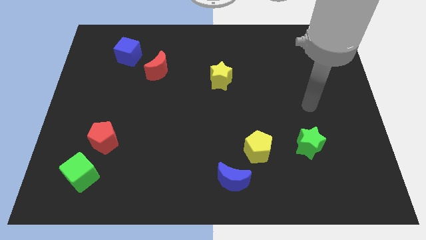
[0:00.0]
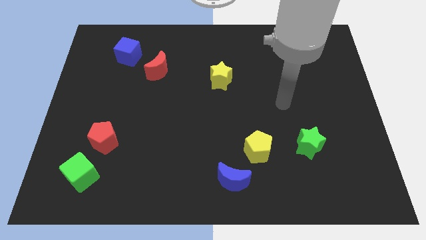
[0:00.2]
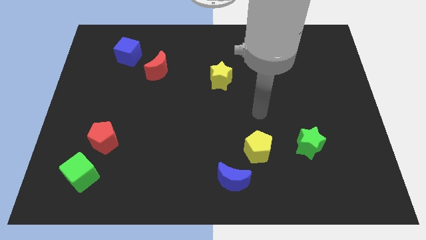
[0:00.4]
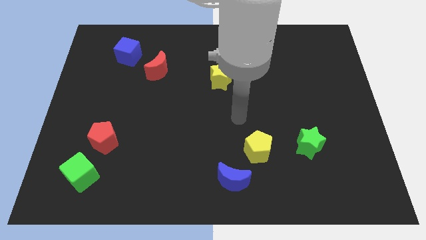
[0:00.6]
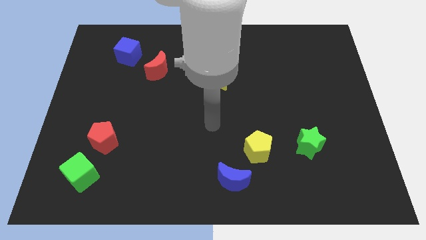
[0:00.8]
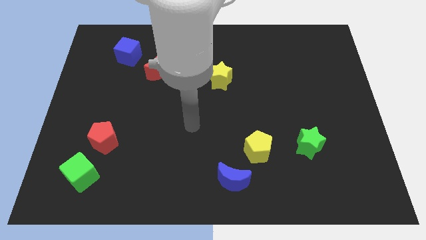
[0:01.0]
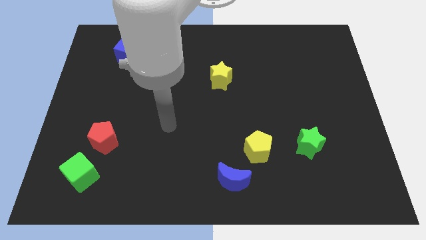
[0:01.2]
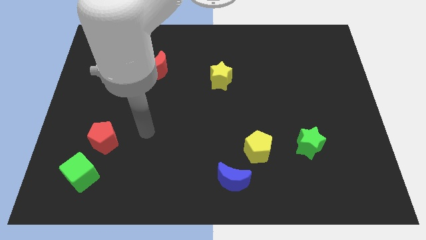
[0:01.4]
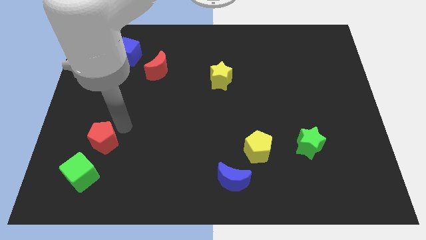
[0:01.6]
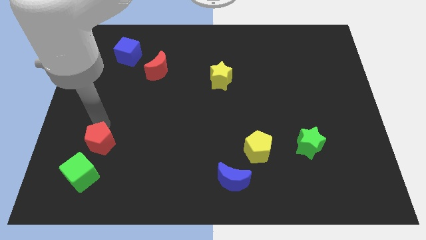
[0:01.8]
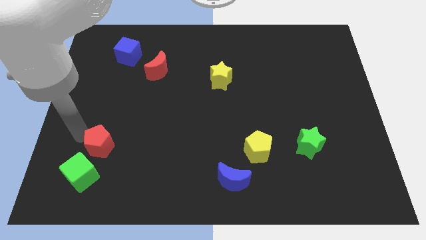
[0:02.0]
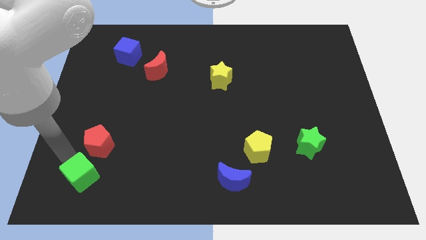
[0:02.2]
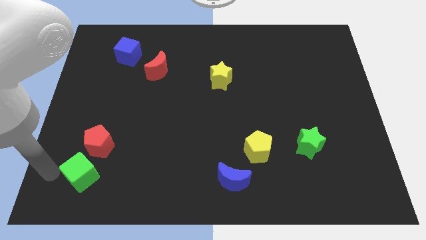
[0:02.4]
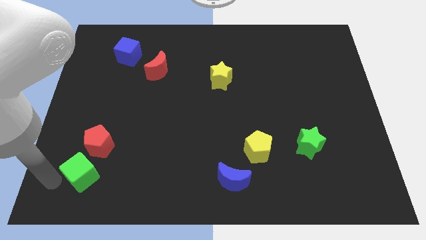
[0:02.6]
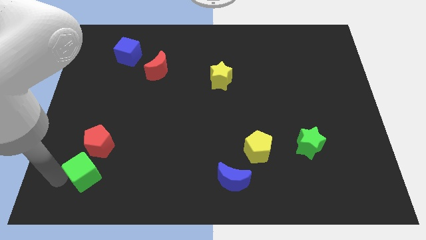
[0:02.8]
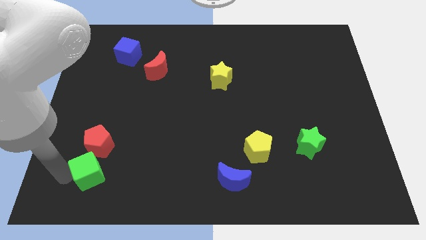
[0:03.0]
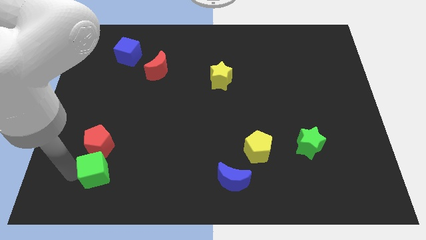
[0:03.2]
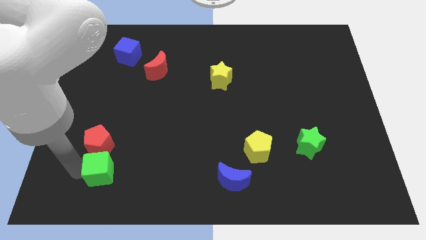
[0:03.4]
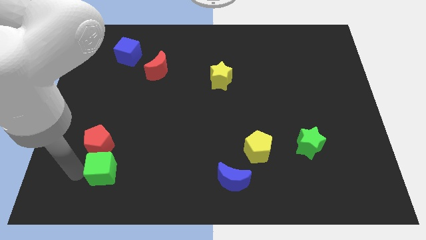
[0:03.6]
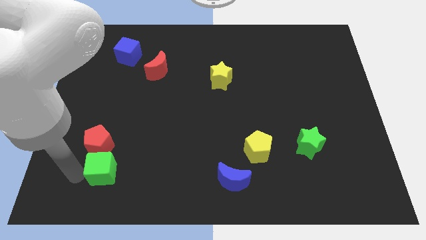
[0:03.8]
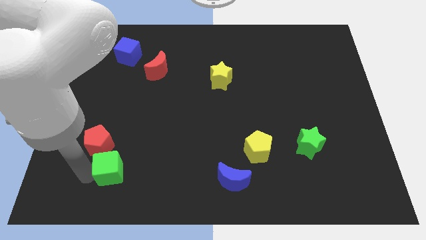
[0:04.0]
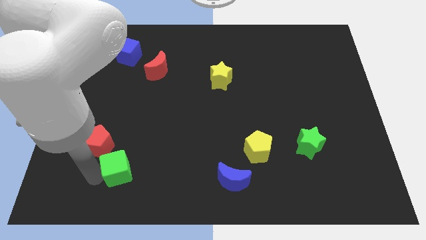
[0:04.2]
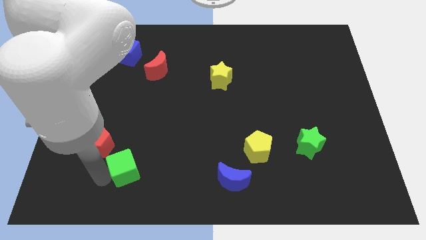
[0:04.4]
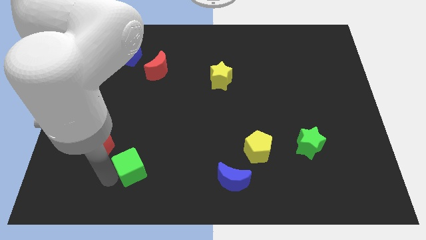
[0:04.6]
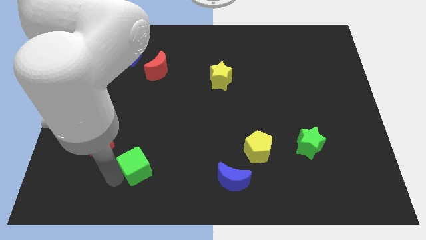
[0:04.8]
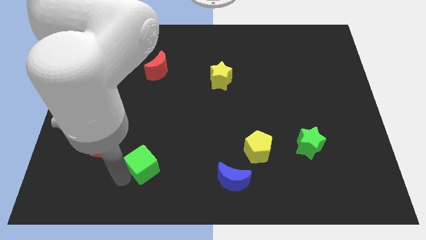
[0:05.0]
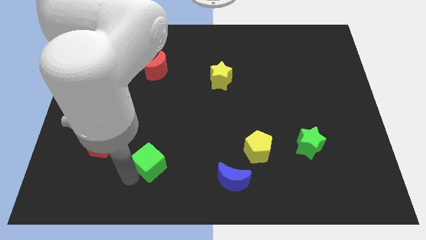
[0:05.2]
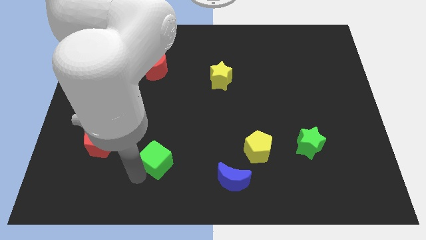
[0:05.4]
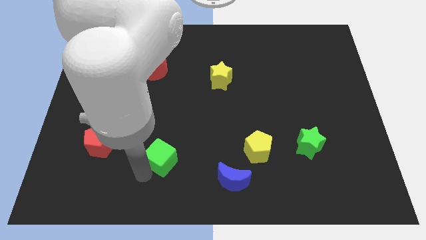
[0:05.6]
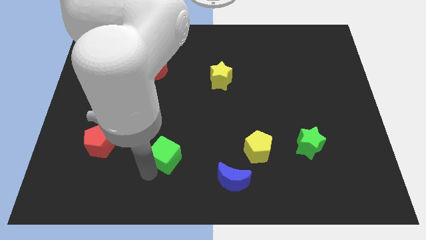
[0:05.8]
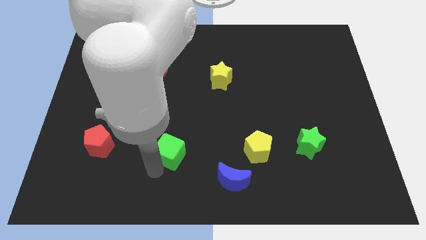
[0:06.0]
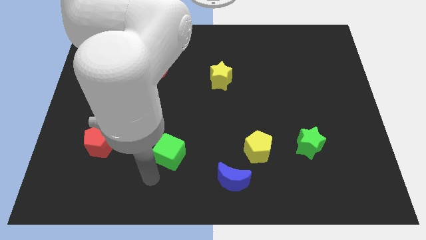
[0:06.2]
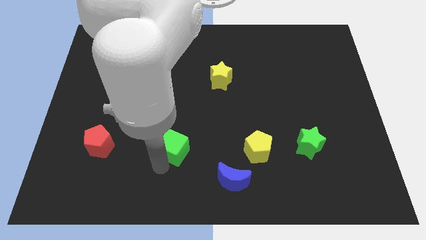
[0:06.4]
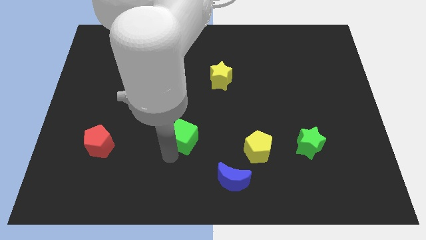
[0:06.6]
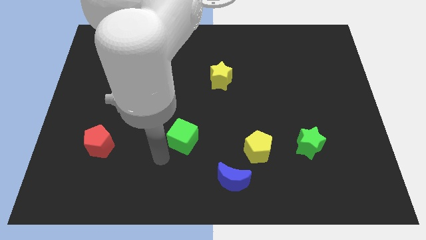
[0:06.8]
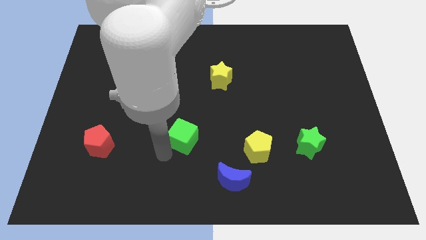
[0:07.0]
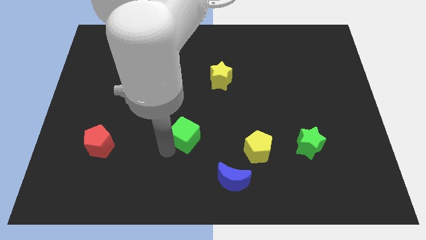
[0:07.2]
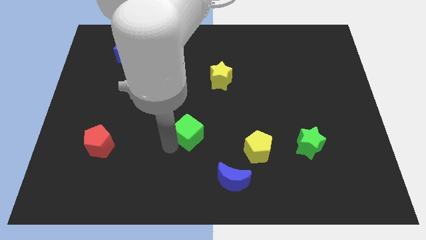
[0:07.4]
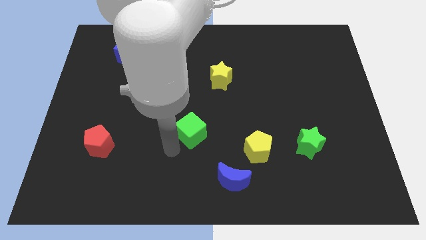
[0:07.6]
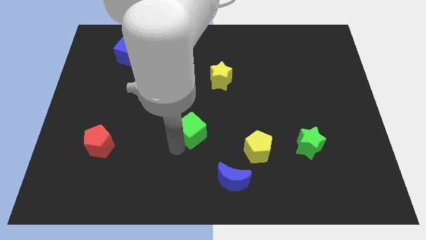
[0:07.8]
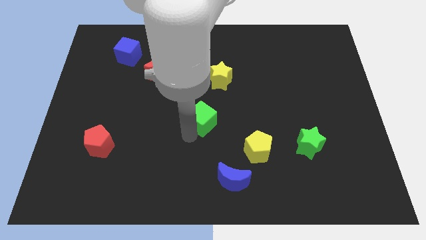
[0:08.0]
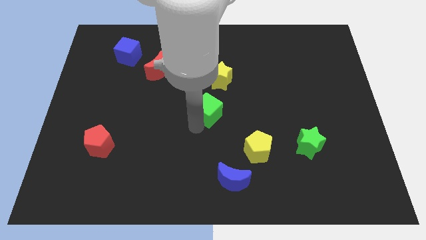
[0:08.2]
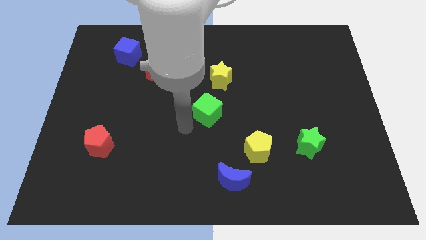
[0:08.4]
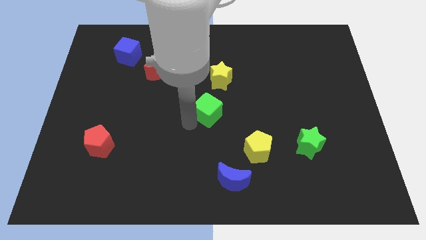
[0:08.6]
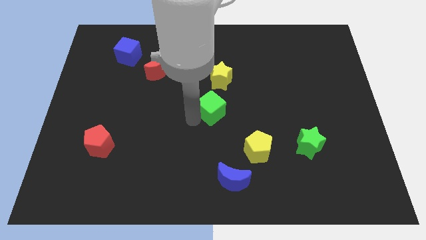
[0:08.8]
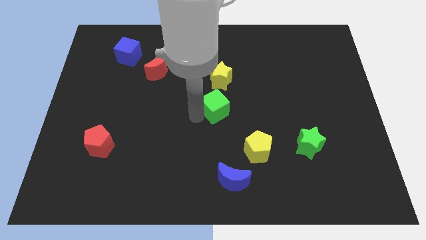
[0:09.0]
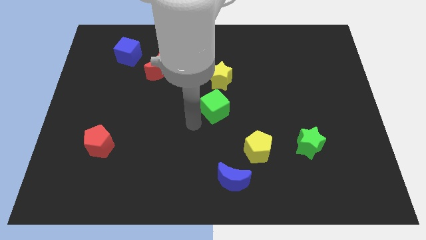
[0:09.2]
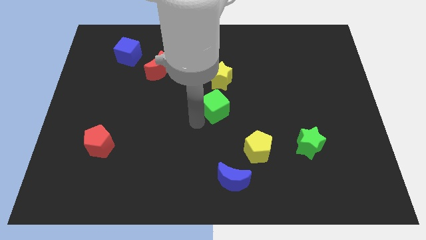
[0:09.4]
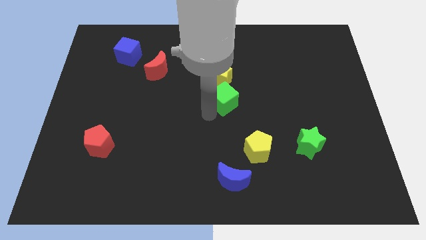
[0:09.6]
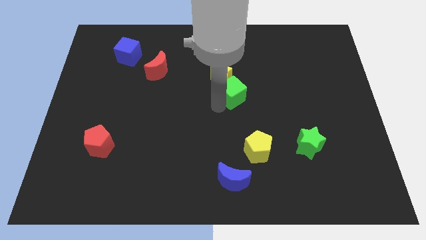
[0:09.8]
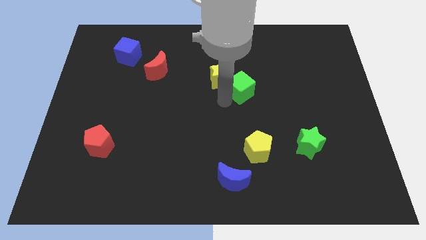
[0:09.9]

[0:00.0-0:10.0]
push the green cube right of the yellow star
